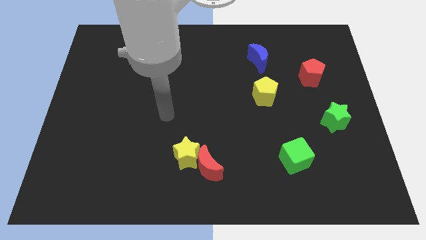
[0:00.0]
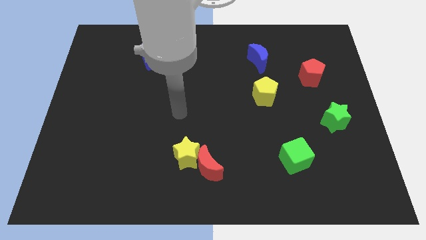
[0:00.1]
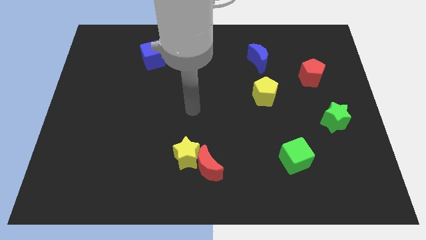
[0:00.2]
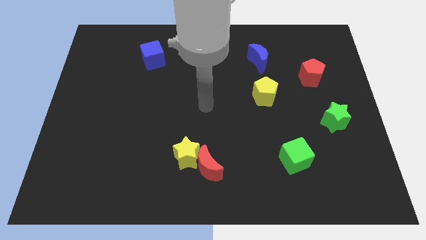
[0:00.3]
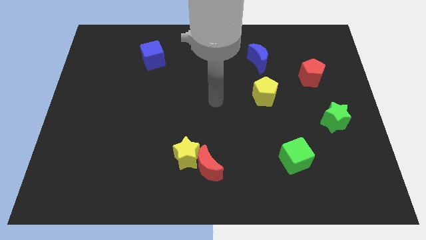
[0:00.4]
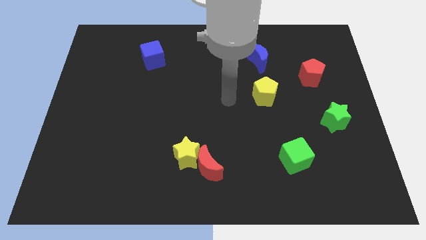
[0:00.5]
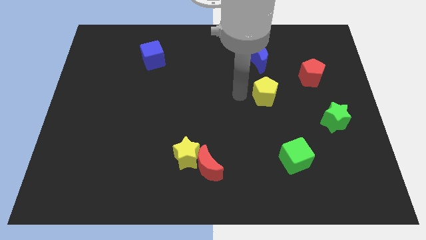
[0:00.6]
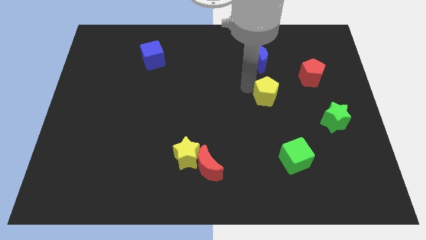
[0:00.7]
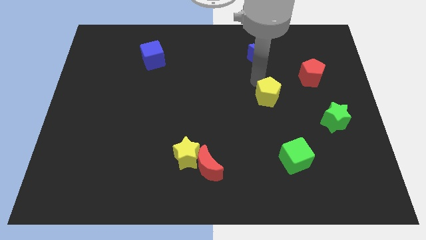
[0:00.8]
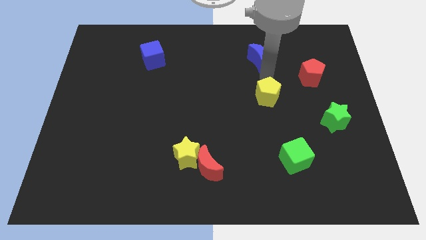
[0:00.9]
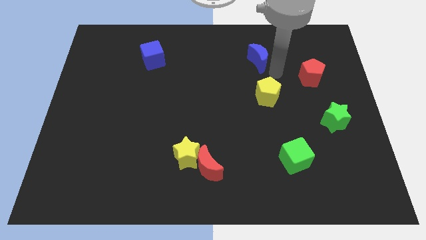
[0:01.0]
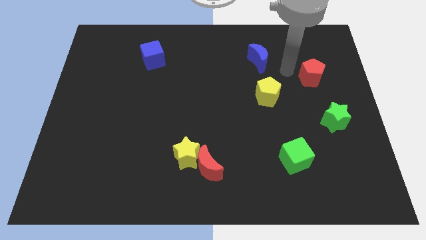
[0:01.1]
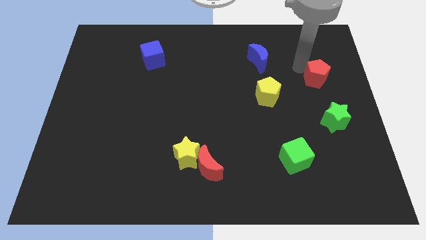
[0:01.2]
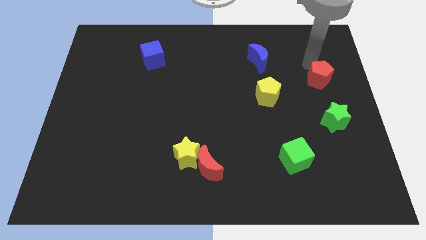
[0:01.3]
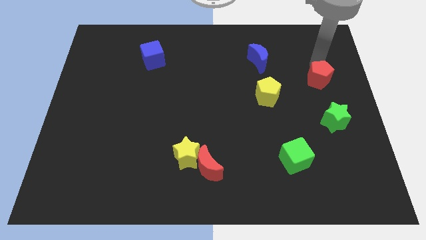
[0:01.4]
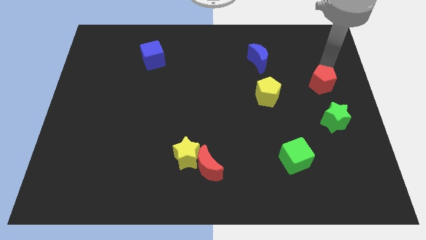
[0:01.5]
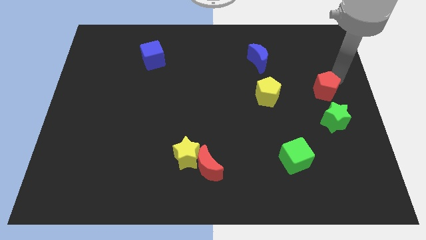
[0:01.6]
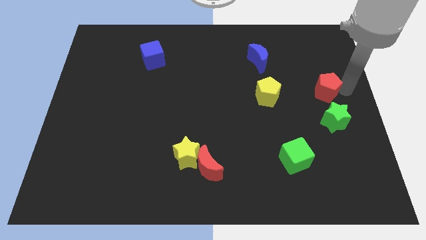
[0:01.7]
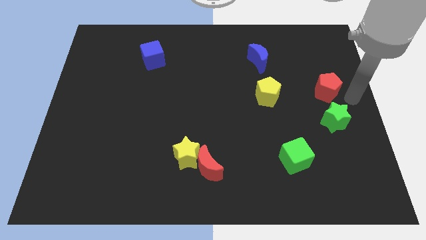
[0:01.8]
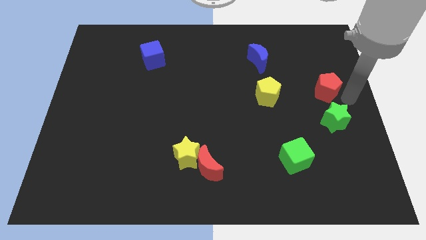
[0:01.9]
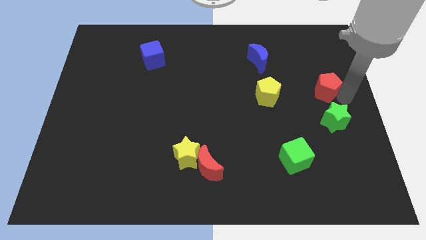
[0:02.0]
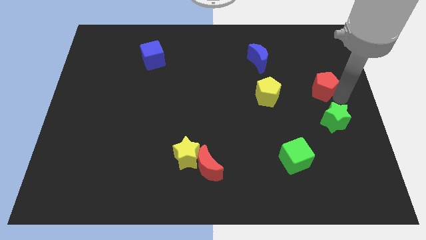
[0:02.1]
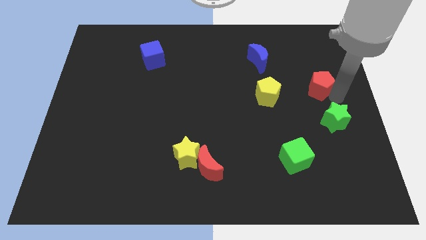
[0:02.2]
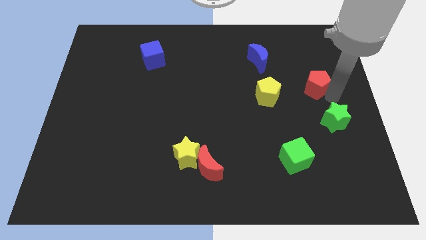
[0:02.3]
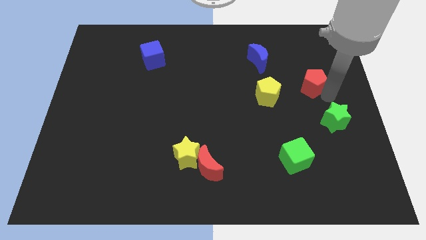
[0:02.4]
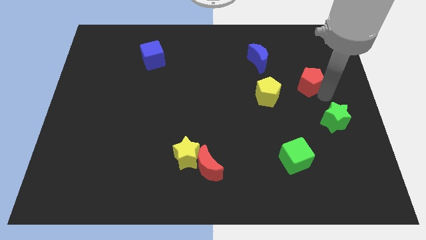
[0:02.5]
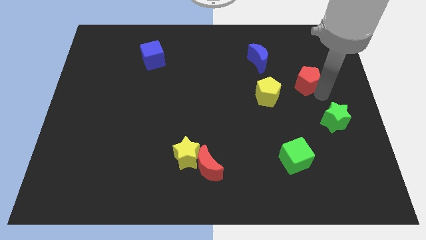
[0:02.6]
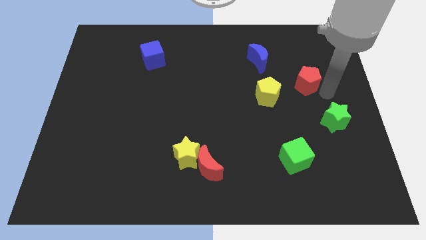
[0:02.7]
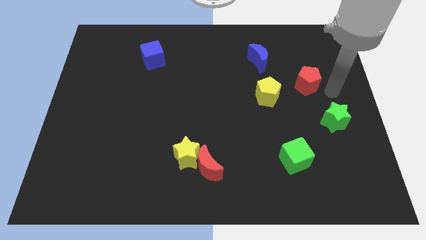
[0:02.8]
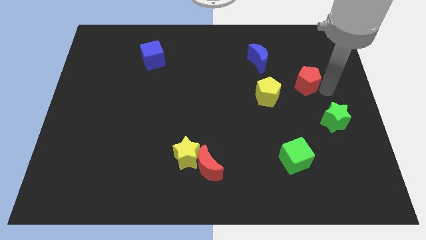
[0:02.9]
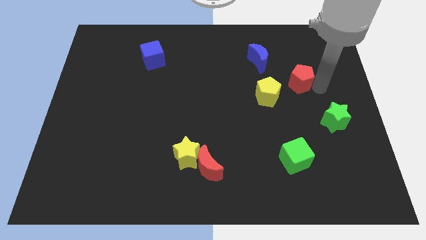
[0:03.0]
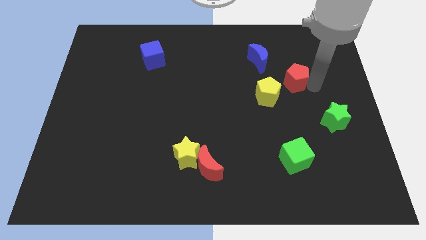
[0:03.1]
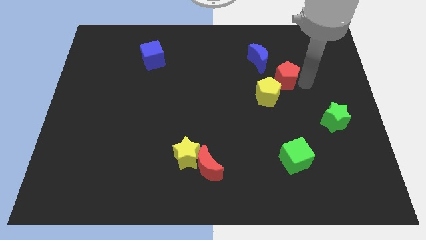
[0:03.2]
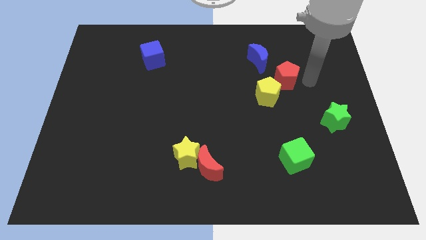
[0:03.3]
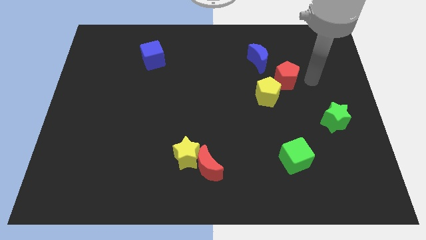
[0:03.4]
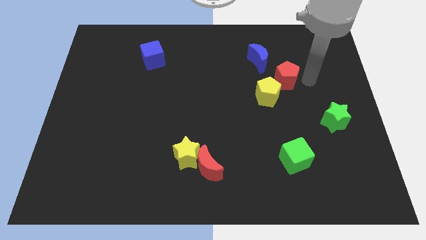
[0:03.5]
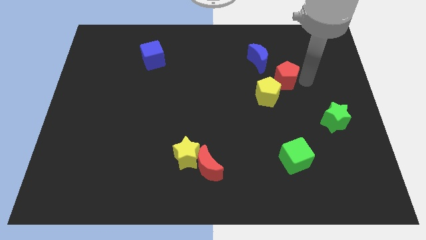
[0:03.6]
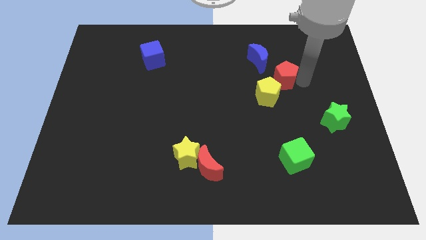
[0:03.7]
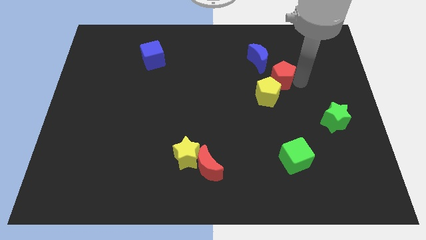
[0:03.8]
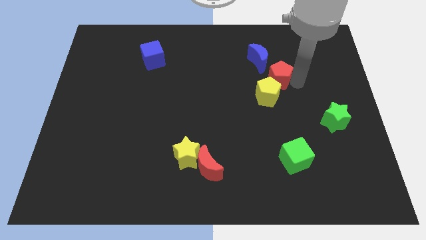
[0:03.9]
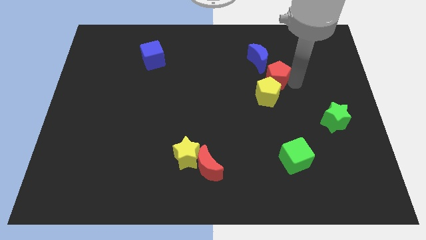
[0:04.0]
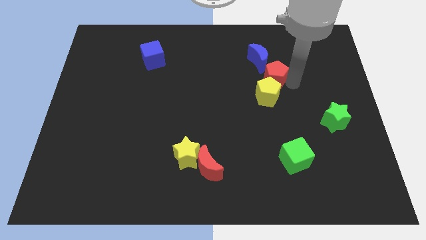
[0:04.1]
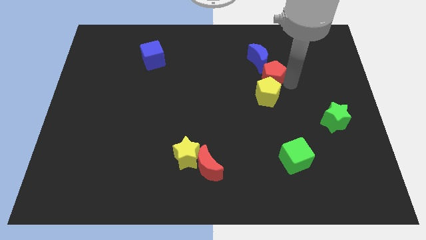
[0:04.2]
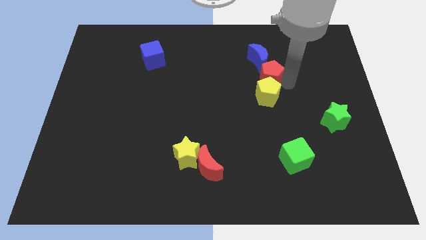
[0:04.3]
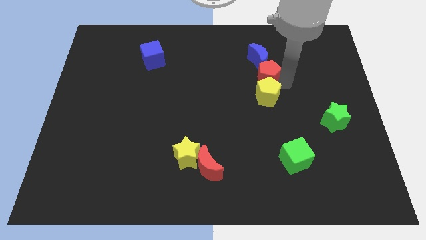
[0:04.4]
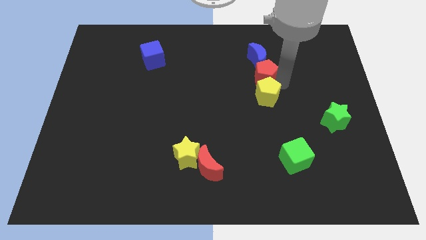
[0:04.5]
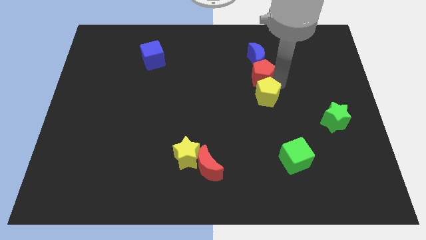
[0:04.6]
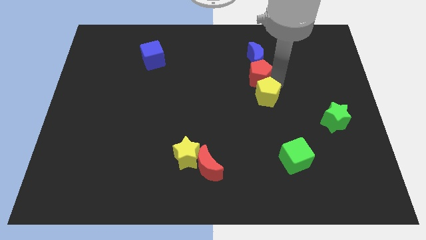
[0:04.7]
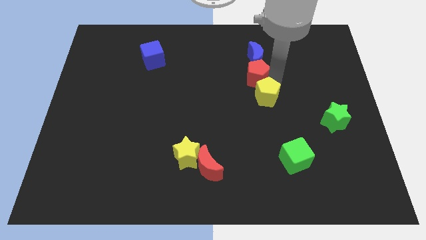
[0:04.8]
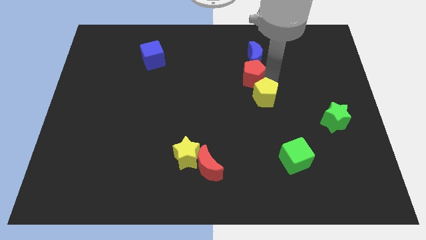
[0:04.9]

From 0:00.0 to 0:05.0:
move the red pentagon to the center

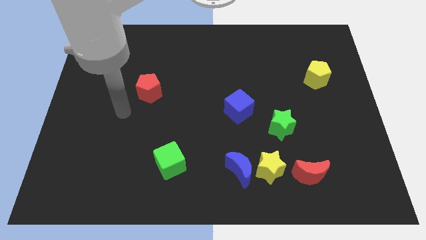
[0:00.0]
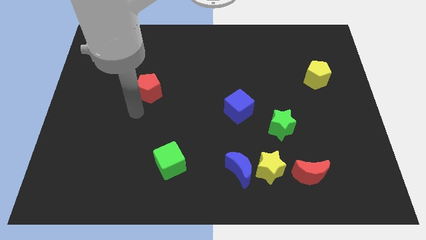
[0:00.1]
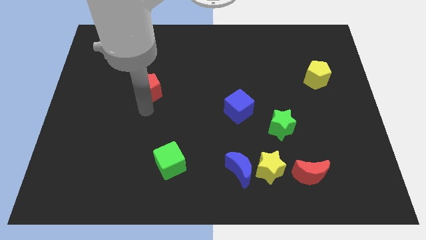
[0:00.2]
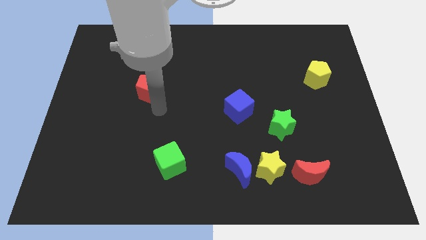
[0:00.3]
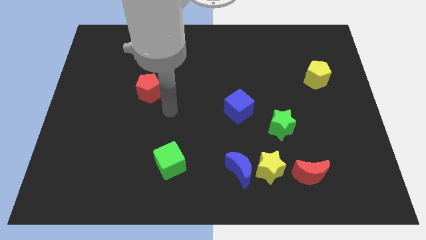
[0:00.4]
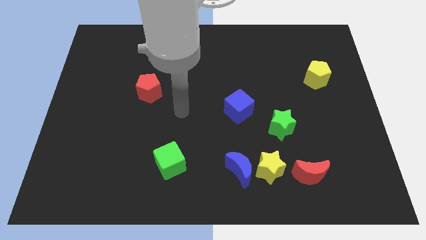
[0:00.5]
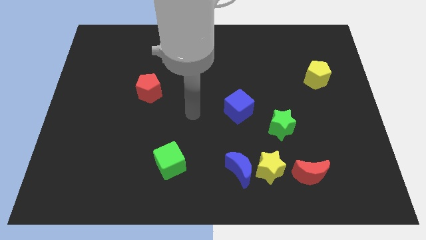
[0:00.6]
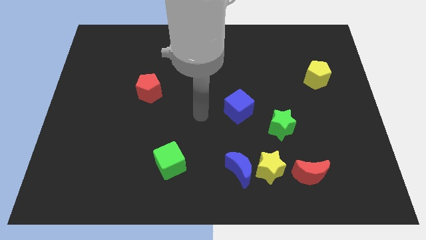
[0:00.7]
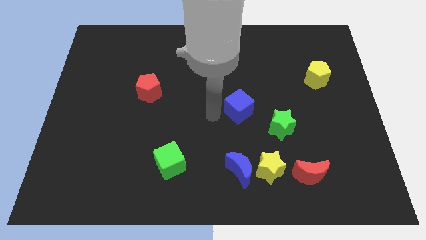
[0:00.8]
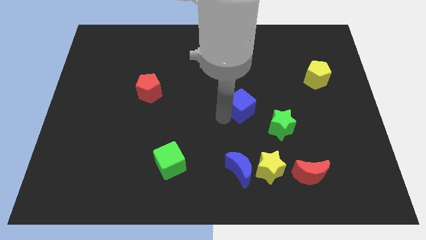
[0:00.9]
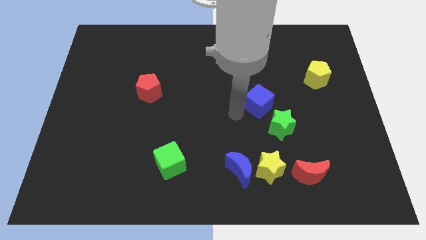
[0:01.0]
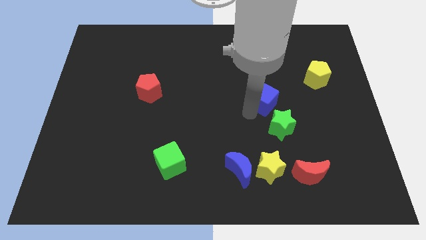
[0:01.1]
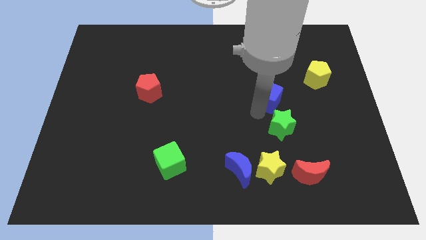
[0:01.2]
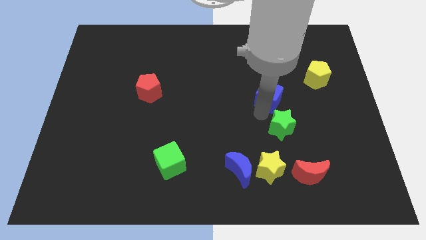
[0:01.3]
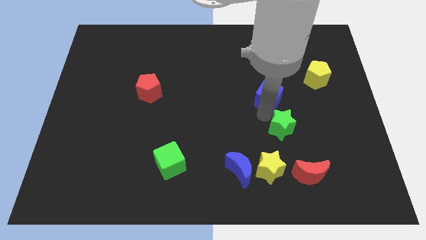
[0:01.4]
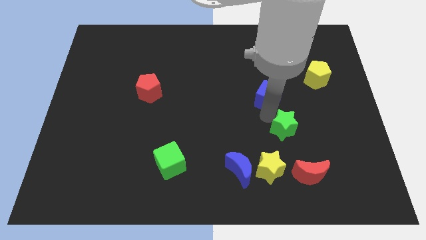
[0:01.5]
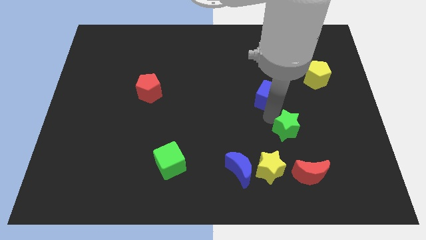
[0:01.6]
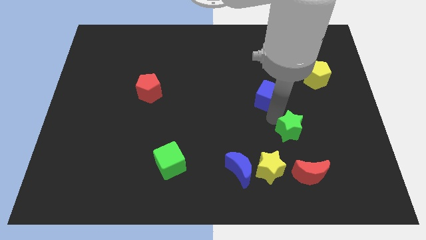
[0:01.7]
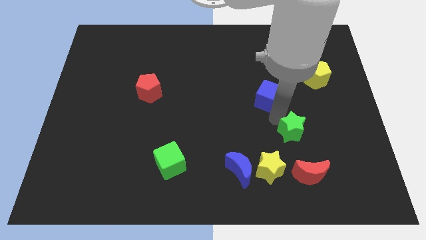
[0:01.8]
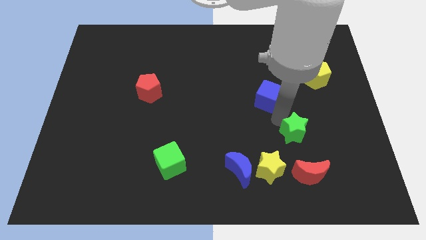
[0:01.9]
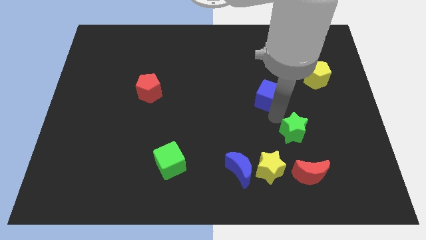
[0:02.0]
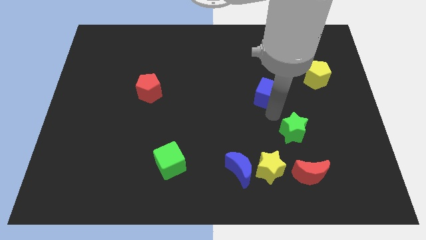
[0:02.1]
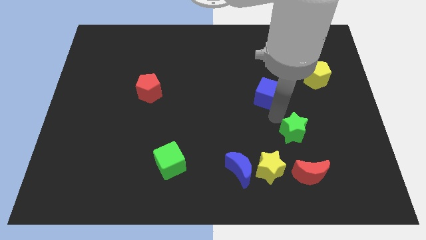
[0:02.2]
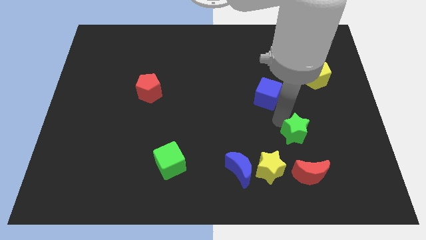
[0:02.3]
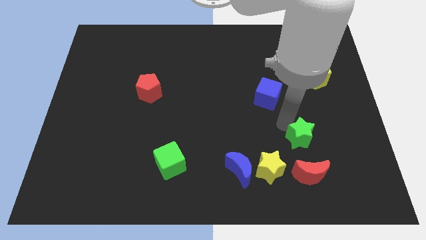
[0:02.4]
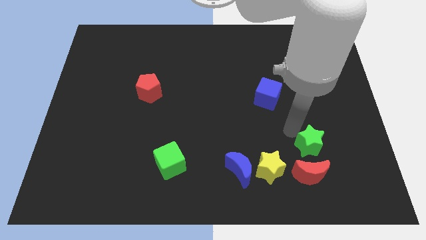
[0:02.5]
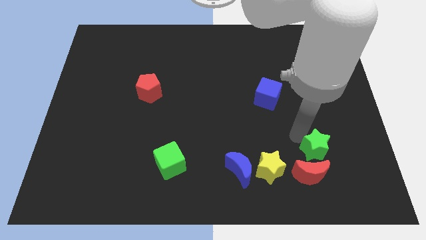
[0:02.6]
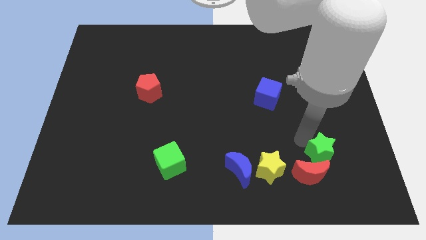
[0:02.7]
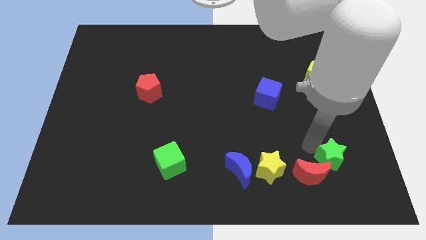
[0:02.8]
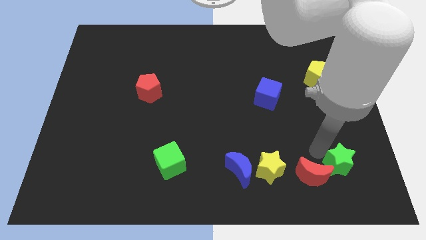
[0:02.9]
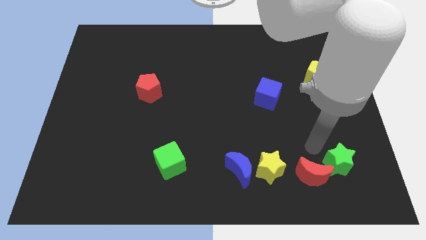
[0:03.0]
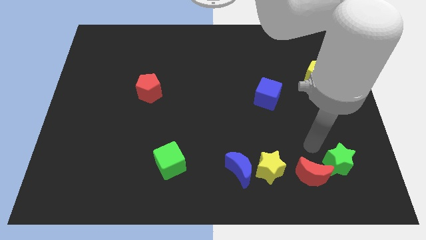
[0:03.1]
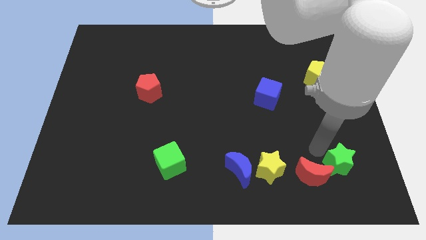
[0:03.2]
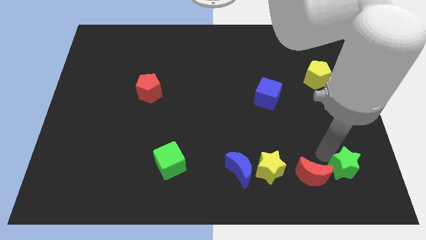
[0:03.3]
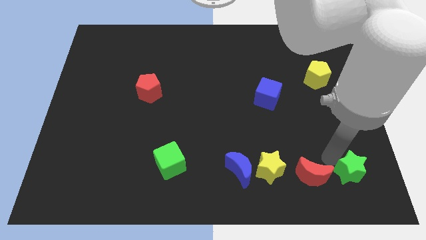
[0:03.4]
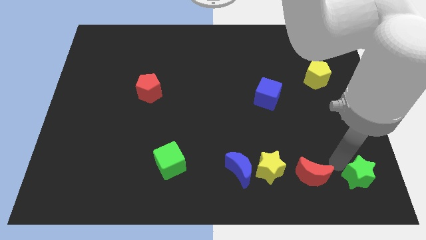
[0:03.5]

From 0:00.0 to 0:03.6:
slide the green star to the lower right corner
